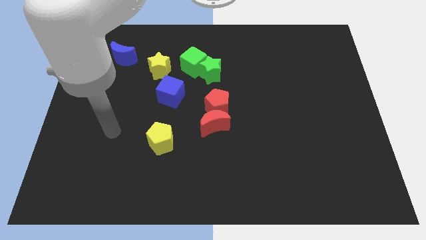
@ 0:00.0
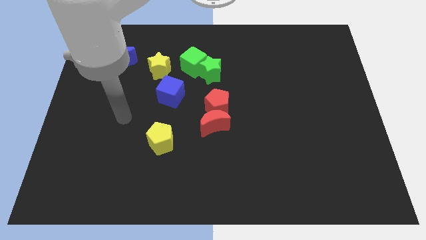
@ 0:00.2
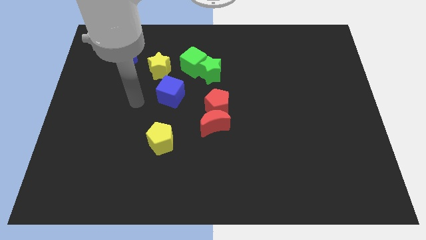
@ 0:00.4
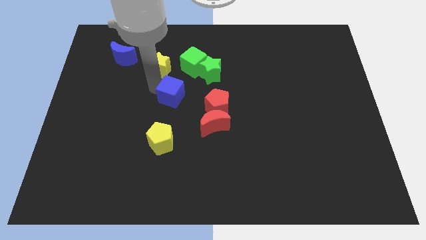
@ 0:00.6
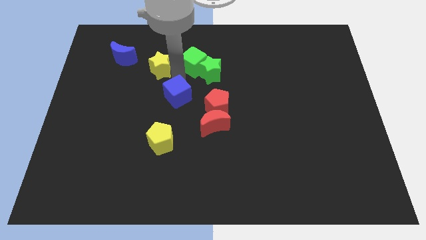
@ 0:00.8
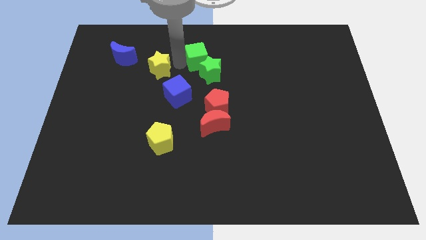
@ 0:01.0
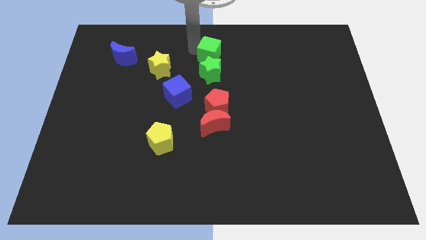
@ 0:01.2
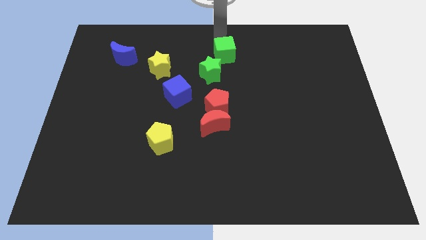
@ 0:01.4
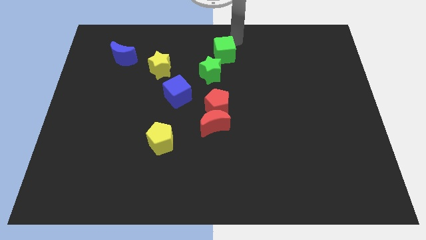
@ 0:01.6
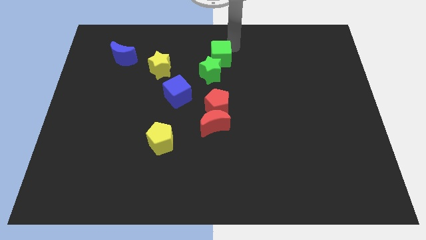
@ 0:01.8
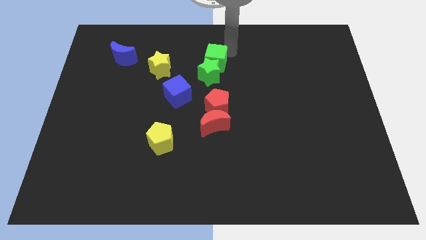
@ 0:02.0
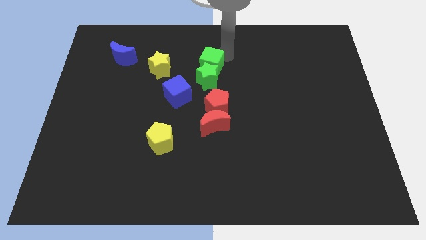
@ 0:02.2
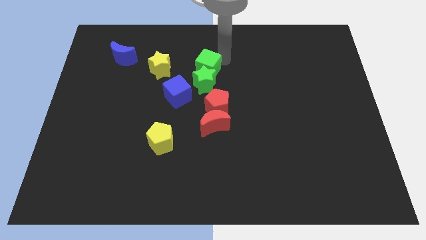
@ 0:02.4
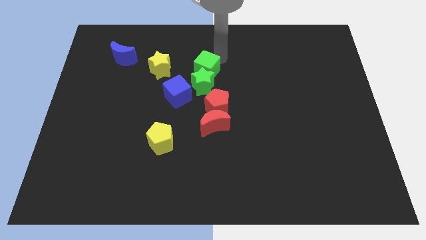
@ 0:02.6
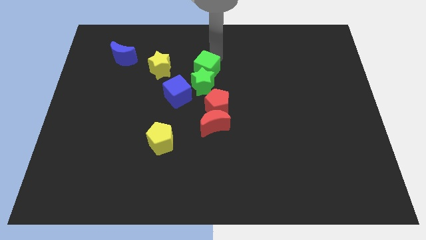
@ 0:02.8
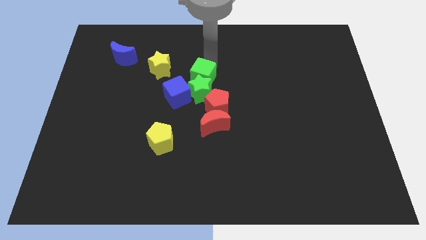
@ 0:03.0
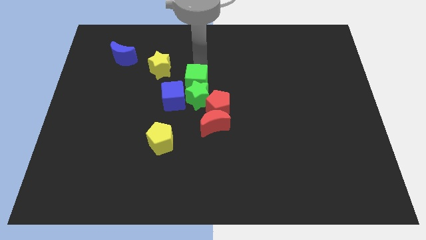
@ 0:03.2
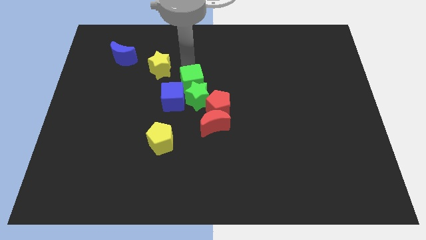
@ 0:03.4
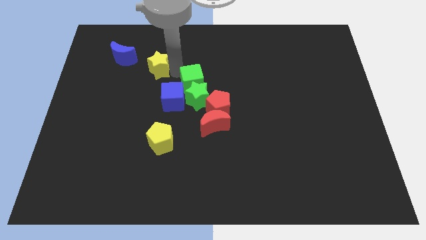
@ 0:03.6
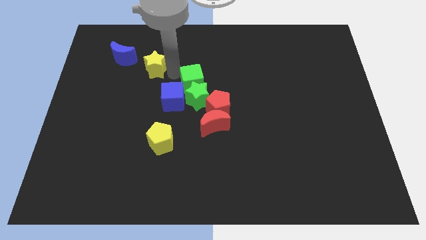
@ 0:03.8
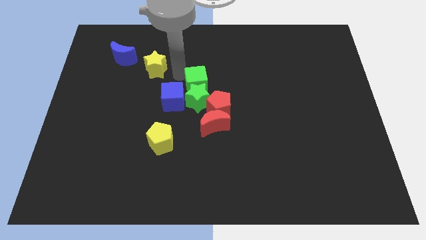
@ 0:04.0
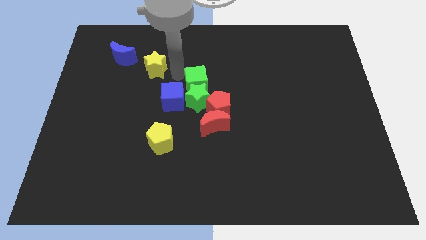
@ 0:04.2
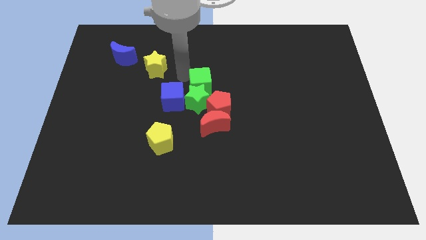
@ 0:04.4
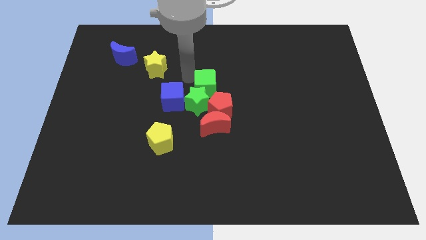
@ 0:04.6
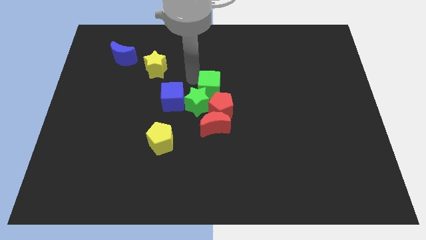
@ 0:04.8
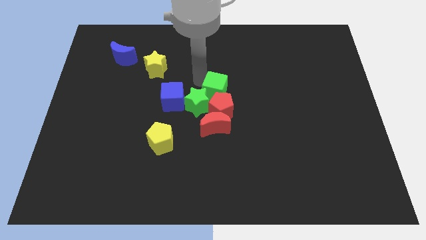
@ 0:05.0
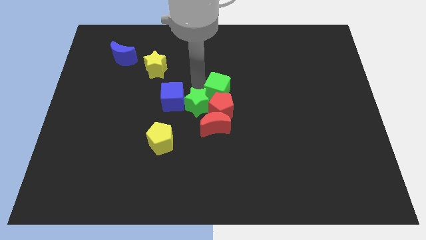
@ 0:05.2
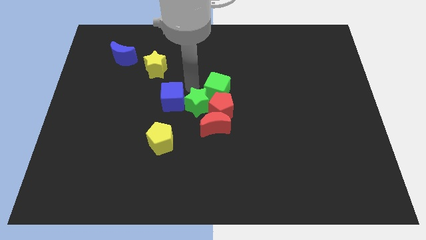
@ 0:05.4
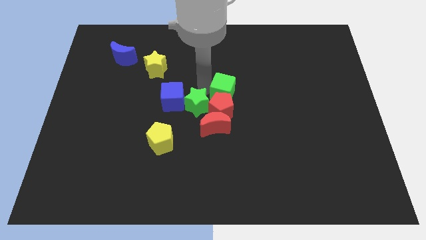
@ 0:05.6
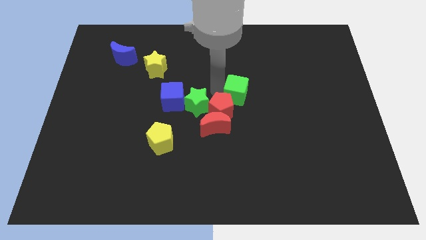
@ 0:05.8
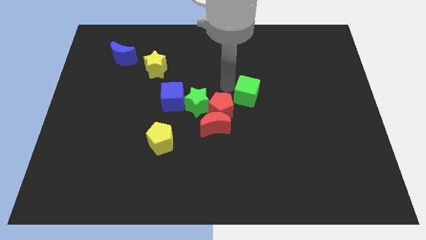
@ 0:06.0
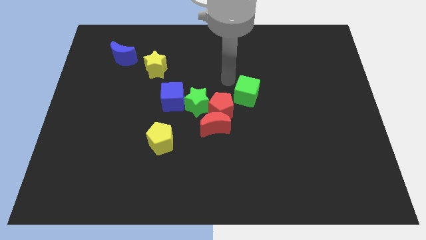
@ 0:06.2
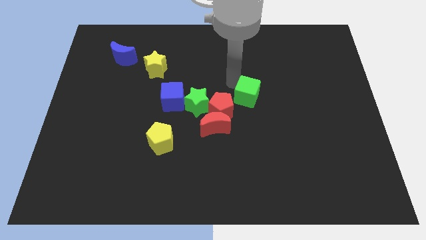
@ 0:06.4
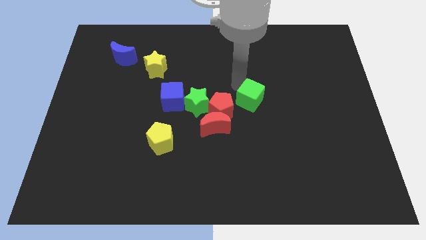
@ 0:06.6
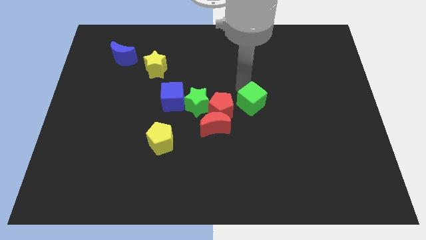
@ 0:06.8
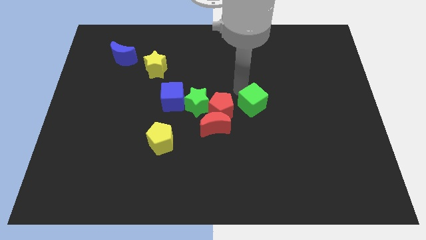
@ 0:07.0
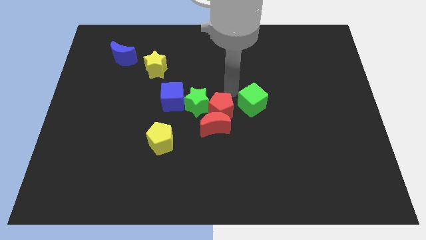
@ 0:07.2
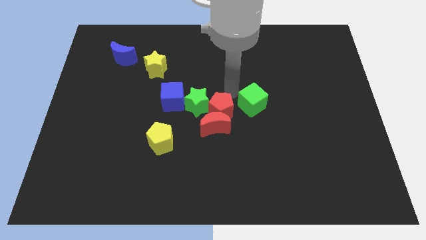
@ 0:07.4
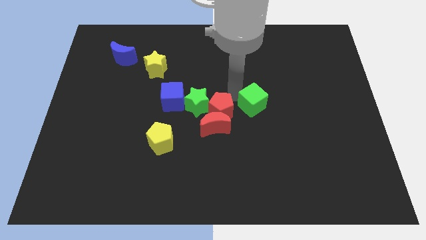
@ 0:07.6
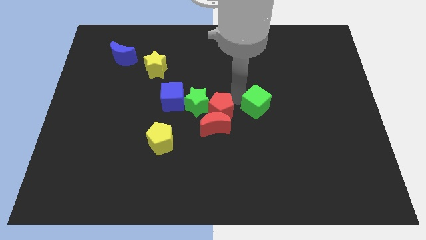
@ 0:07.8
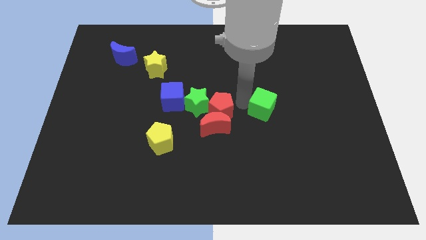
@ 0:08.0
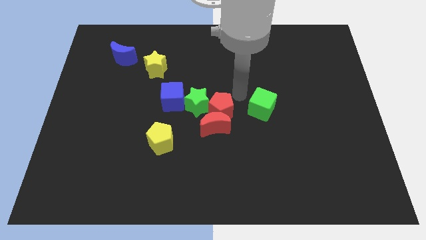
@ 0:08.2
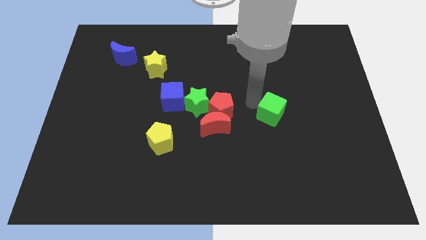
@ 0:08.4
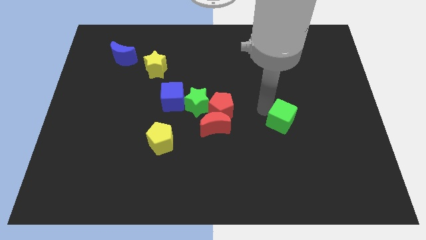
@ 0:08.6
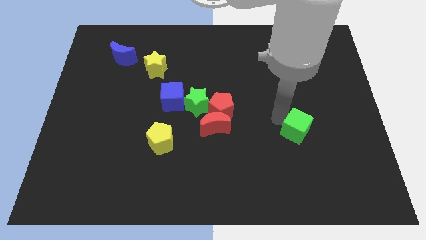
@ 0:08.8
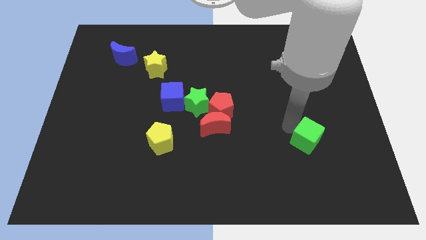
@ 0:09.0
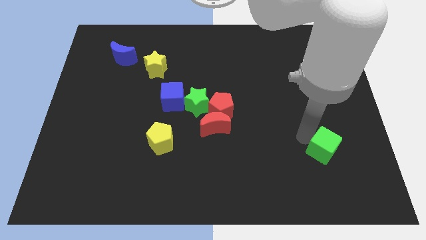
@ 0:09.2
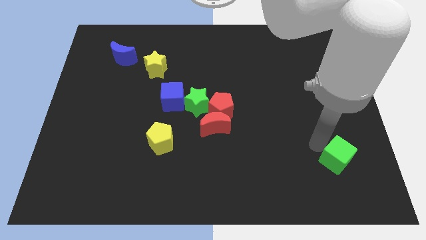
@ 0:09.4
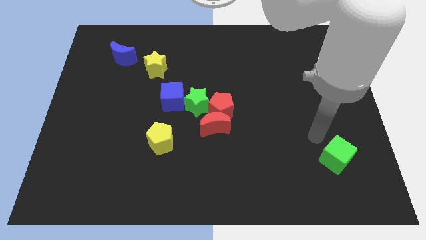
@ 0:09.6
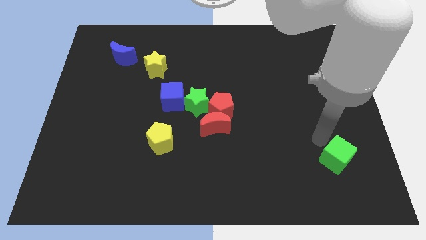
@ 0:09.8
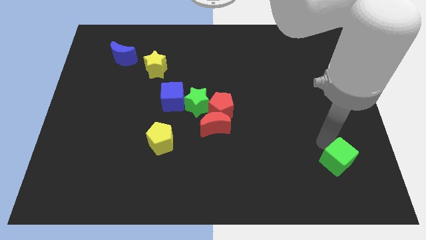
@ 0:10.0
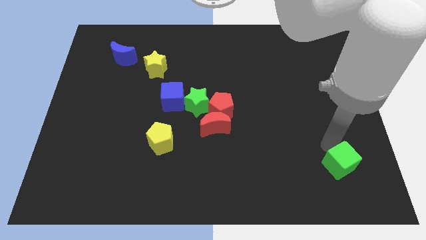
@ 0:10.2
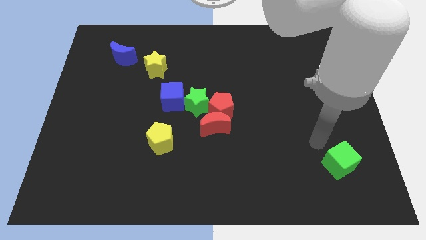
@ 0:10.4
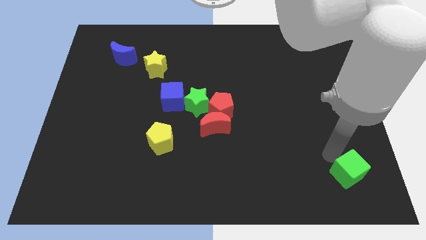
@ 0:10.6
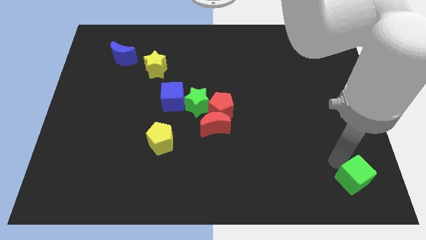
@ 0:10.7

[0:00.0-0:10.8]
push the green cube to the lower right corner

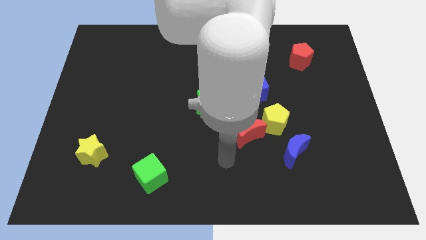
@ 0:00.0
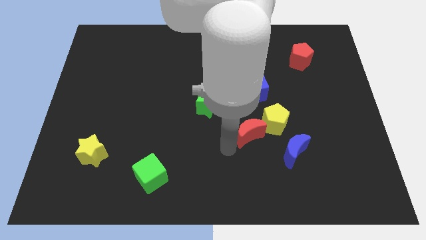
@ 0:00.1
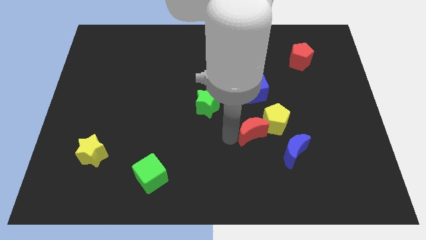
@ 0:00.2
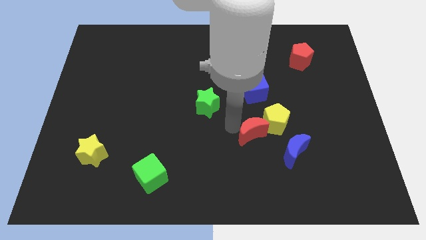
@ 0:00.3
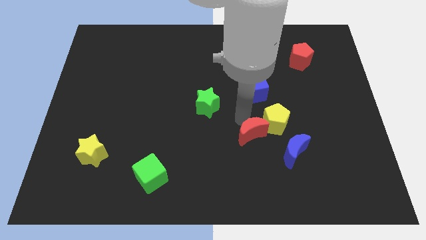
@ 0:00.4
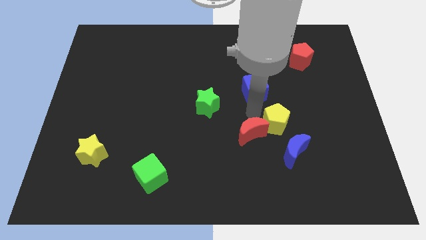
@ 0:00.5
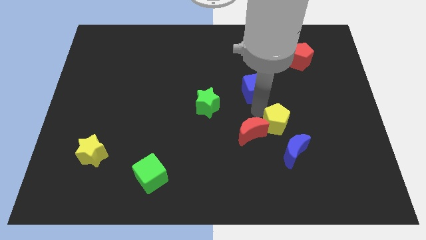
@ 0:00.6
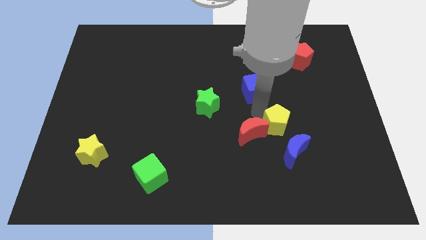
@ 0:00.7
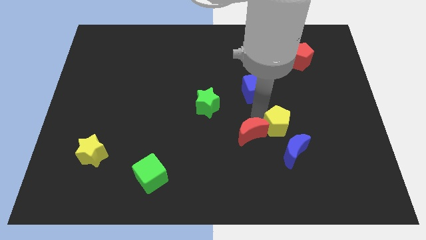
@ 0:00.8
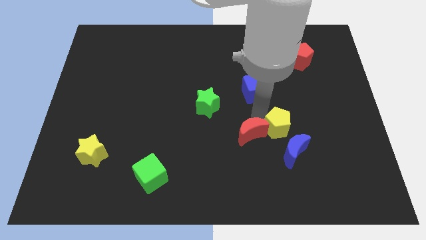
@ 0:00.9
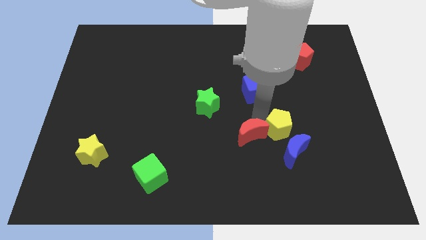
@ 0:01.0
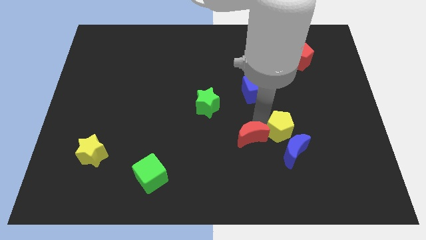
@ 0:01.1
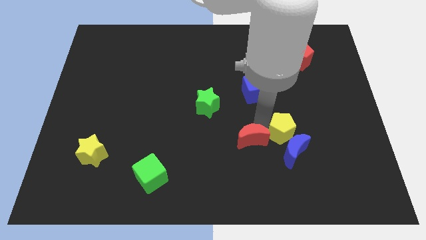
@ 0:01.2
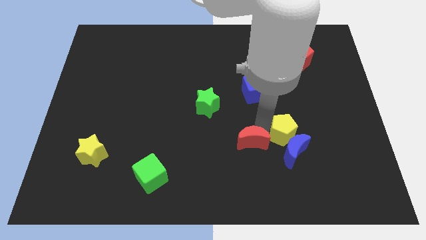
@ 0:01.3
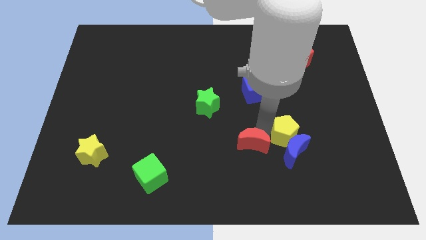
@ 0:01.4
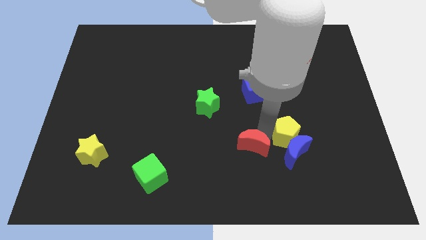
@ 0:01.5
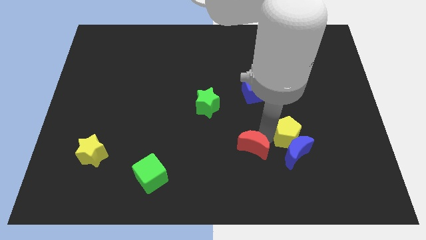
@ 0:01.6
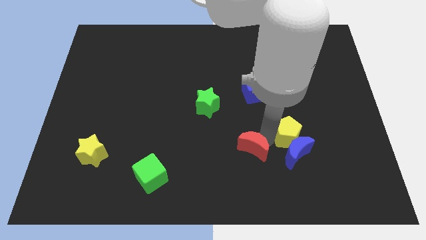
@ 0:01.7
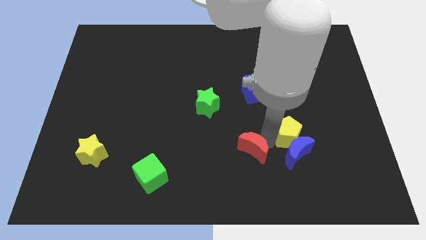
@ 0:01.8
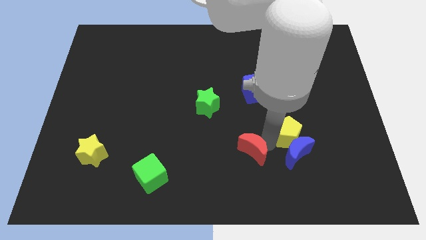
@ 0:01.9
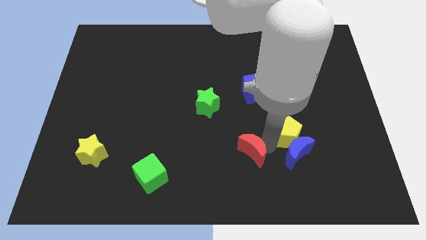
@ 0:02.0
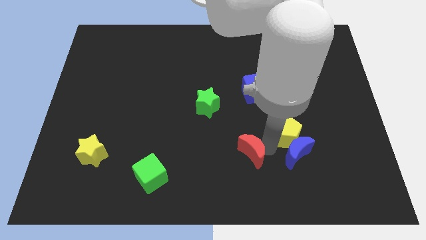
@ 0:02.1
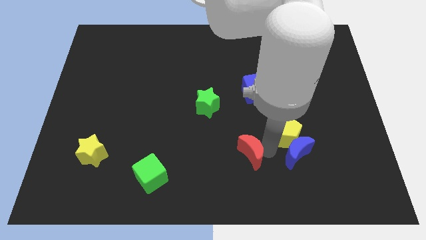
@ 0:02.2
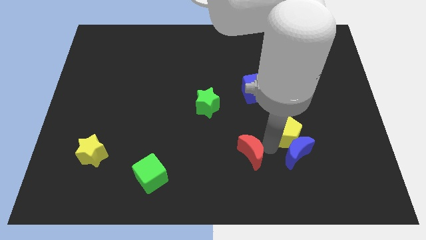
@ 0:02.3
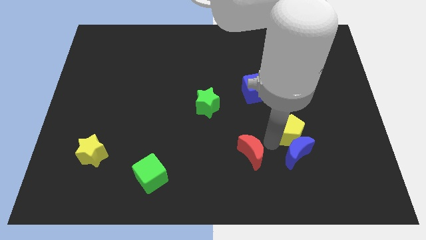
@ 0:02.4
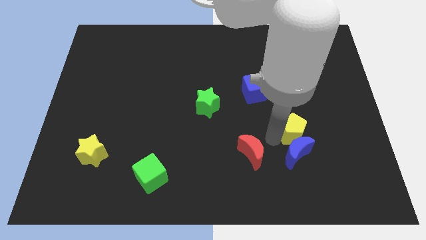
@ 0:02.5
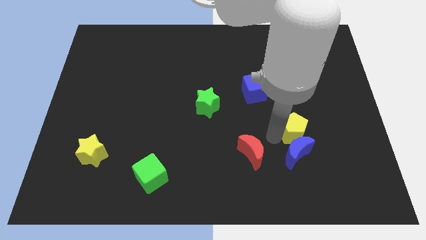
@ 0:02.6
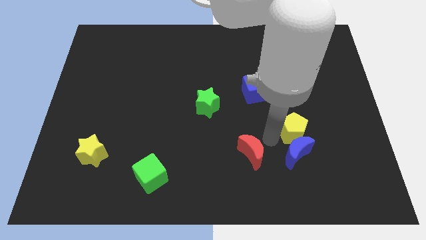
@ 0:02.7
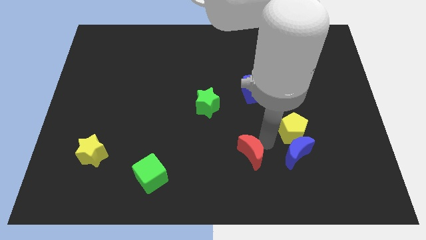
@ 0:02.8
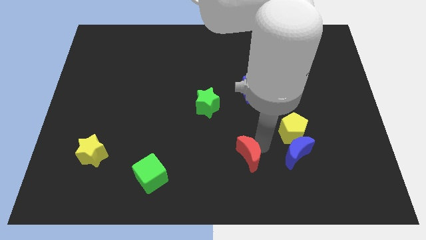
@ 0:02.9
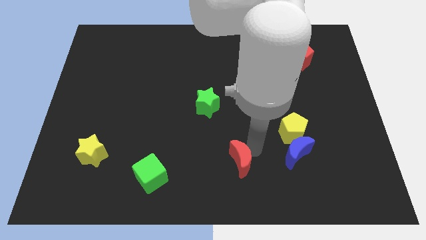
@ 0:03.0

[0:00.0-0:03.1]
put the red moon to the bottom side
